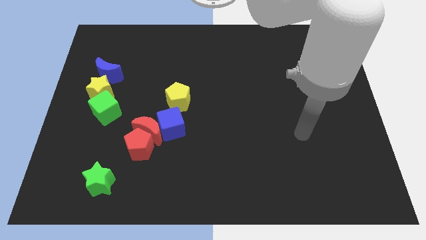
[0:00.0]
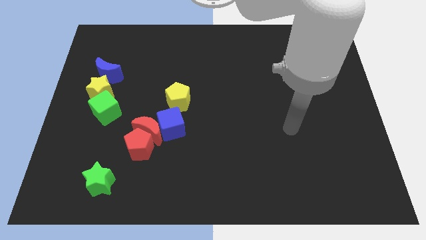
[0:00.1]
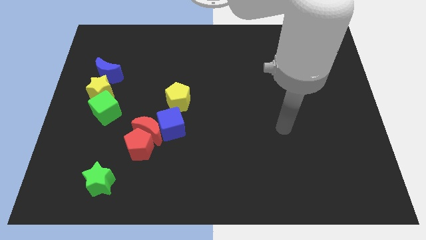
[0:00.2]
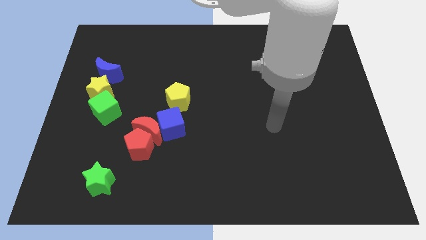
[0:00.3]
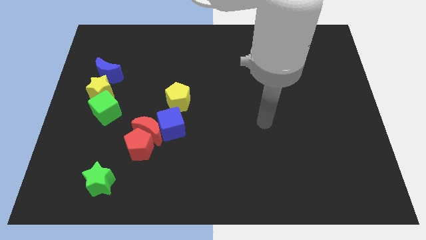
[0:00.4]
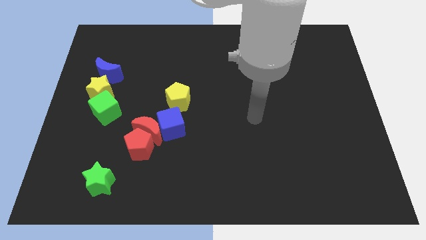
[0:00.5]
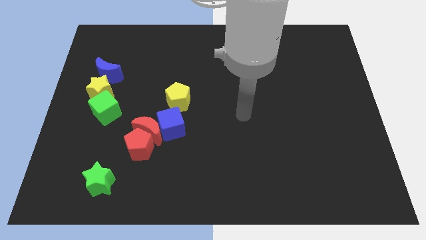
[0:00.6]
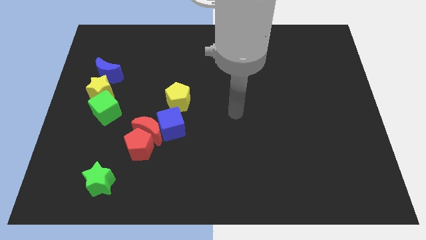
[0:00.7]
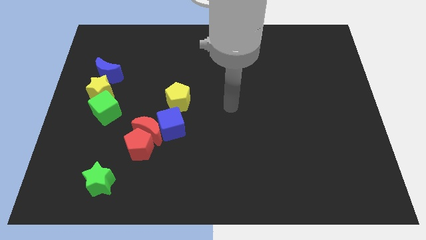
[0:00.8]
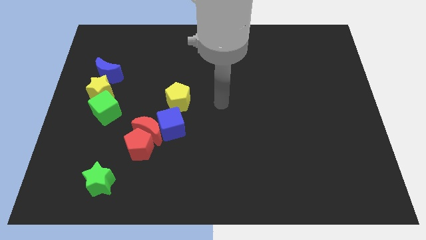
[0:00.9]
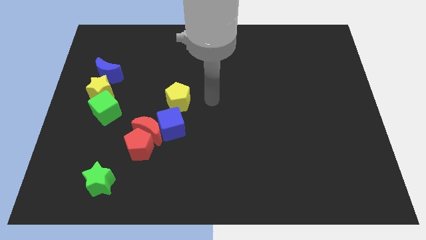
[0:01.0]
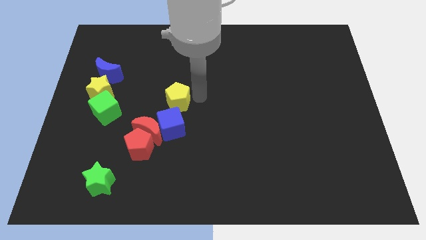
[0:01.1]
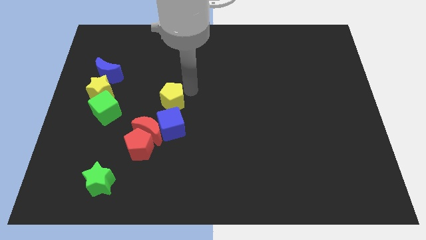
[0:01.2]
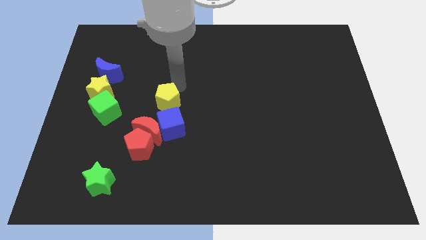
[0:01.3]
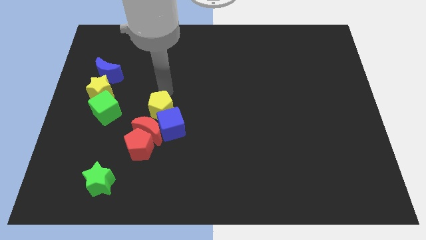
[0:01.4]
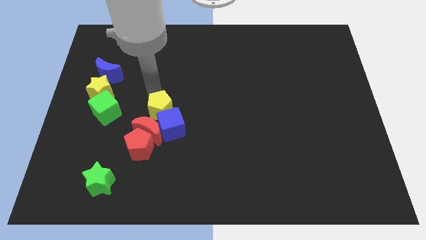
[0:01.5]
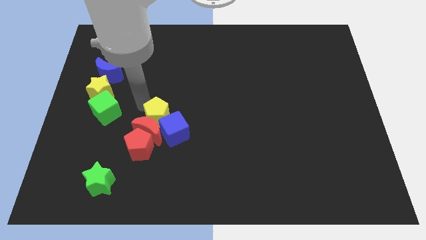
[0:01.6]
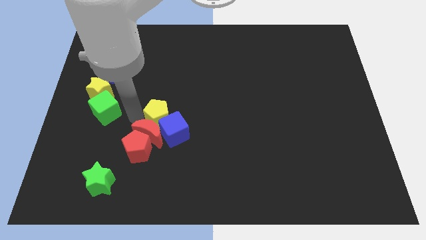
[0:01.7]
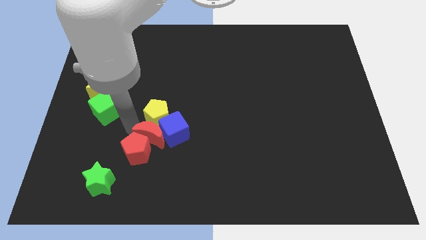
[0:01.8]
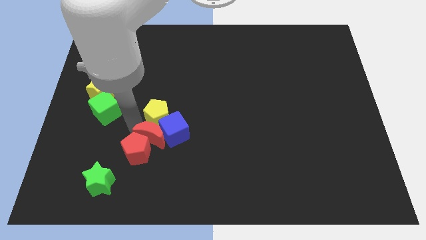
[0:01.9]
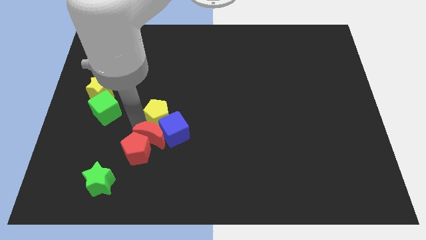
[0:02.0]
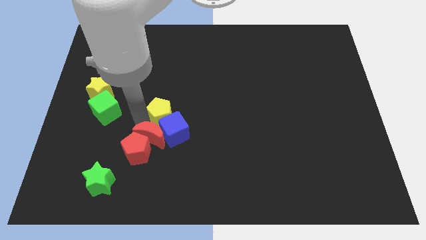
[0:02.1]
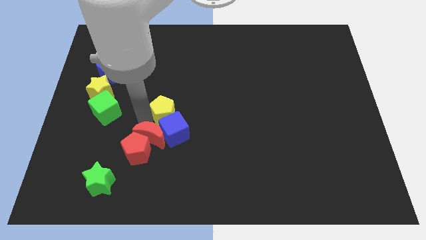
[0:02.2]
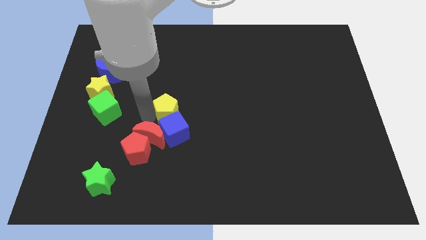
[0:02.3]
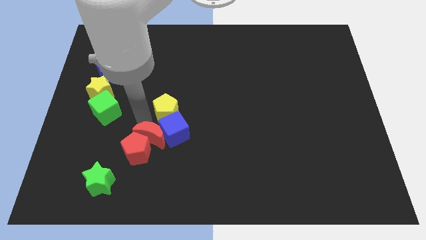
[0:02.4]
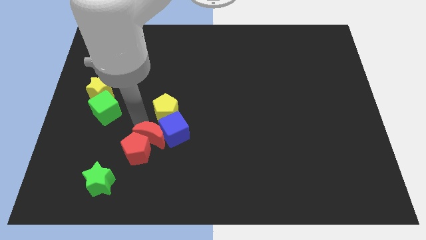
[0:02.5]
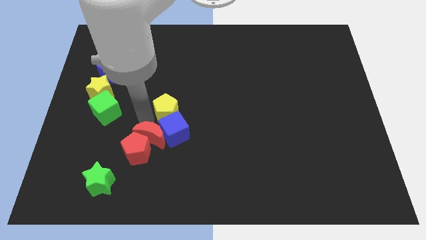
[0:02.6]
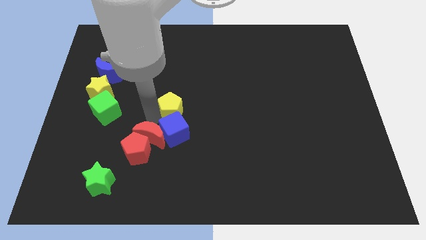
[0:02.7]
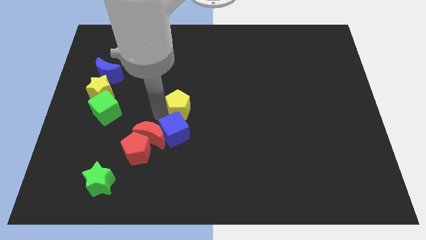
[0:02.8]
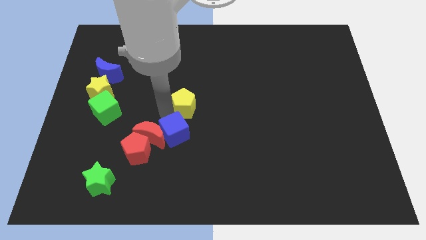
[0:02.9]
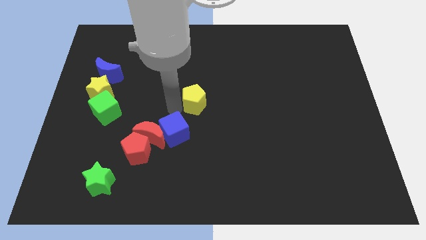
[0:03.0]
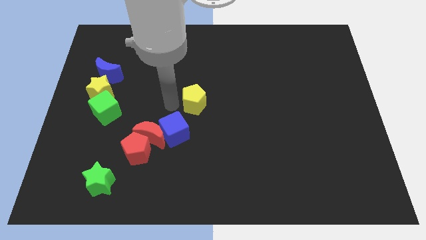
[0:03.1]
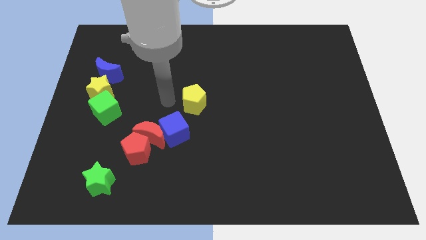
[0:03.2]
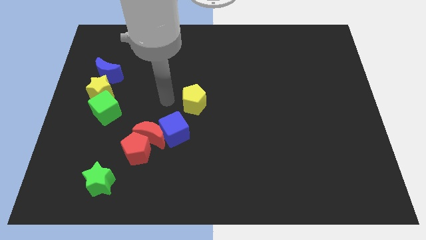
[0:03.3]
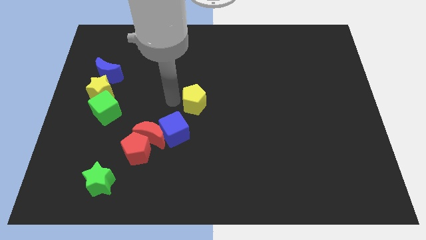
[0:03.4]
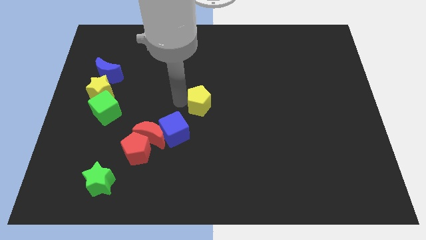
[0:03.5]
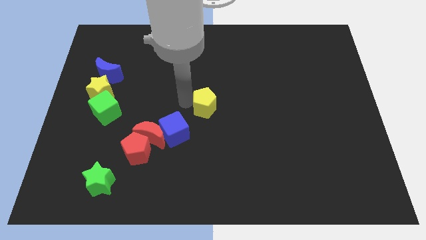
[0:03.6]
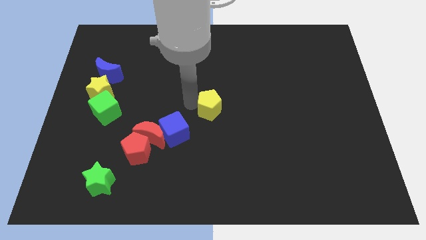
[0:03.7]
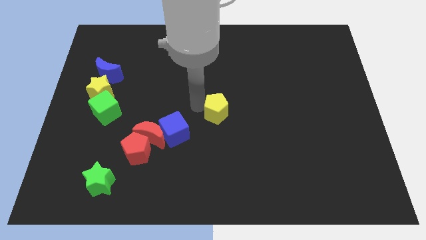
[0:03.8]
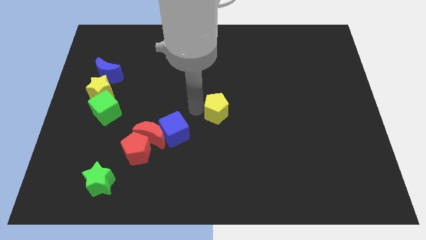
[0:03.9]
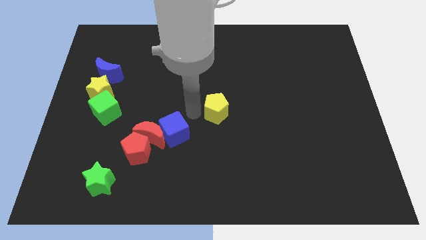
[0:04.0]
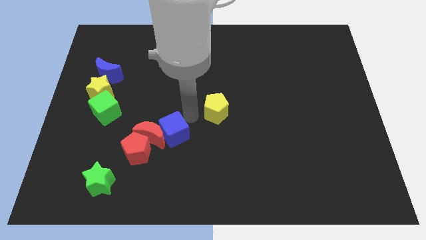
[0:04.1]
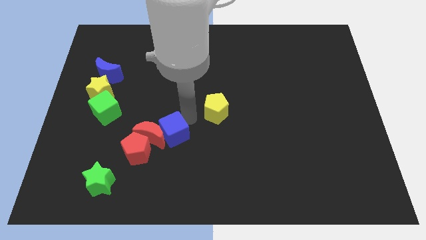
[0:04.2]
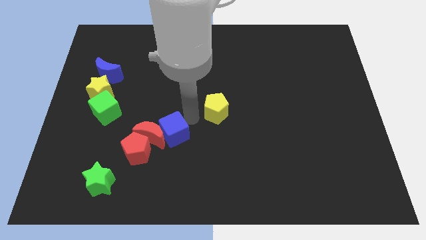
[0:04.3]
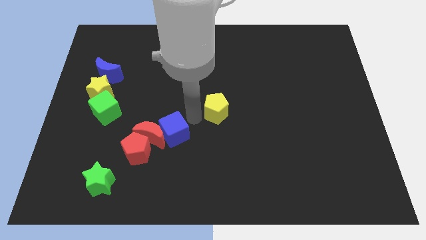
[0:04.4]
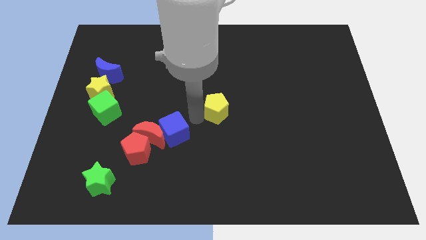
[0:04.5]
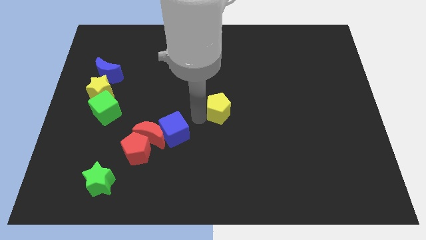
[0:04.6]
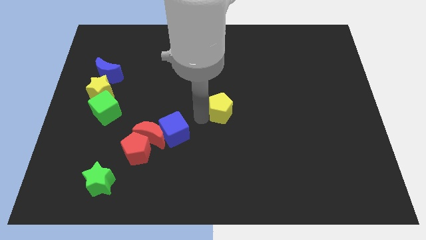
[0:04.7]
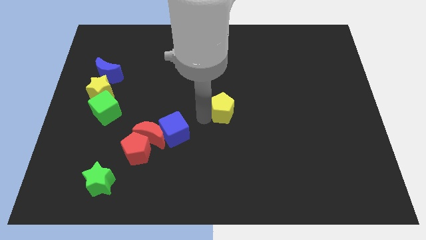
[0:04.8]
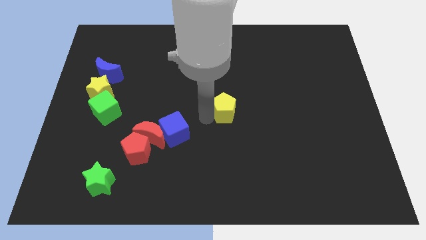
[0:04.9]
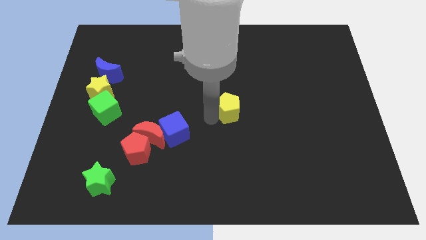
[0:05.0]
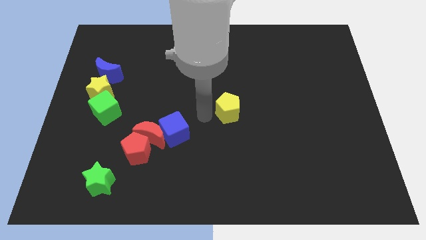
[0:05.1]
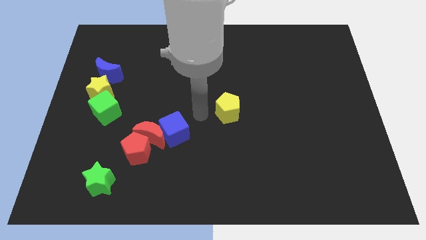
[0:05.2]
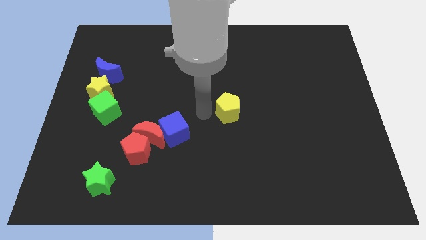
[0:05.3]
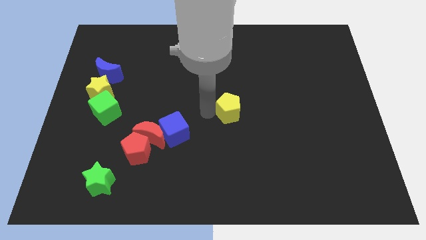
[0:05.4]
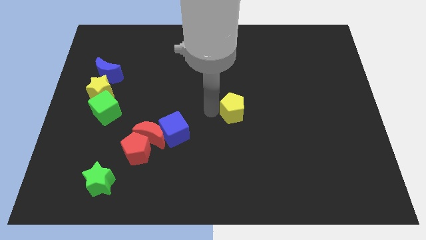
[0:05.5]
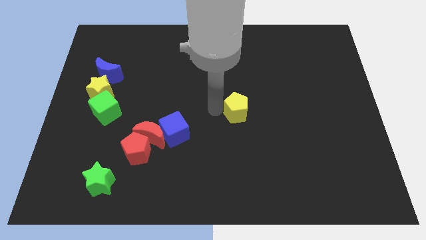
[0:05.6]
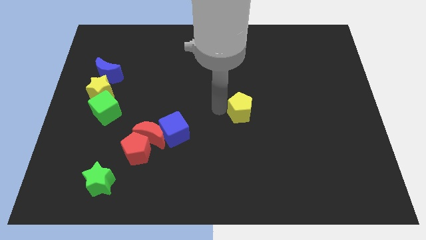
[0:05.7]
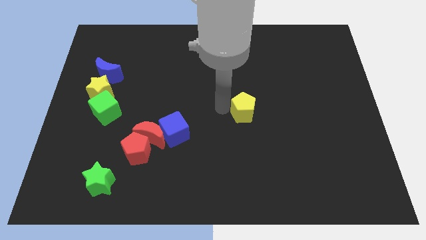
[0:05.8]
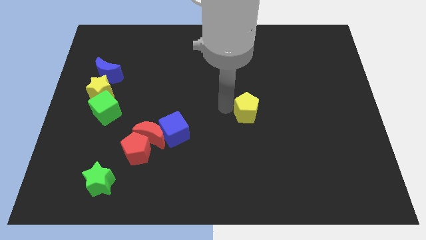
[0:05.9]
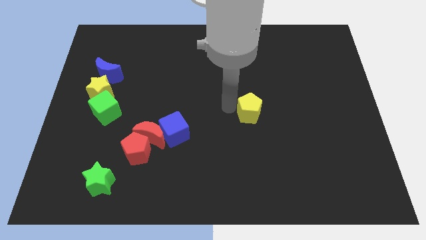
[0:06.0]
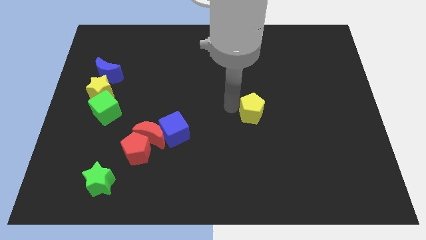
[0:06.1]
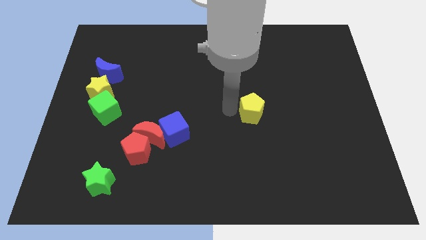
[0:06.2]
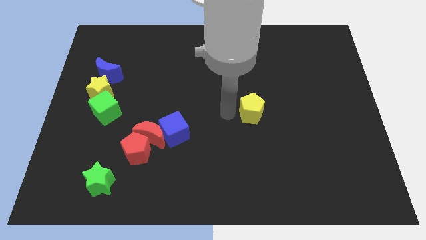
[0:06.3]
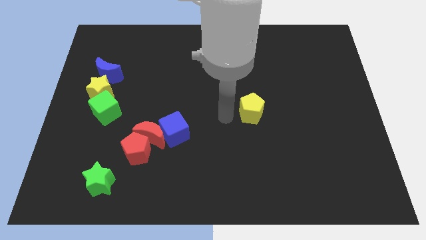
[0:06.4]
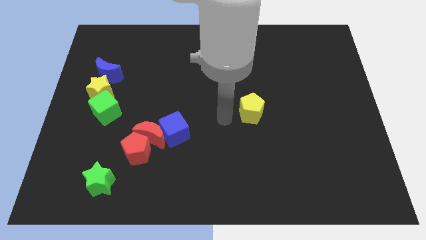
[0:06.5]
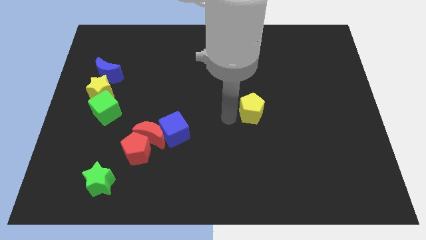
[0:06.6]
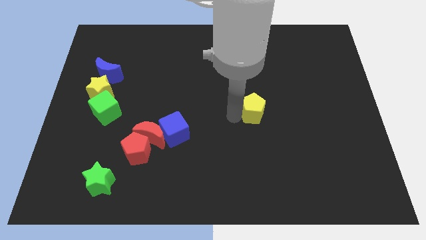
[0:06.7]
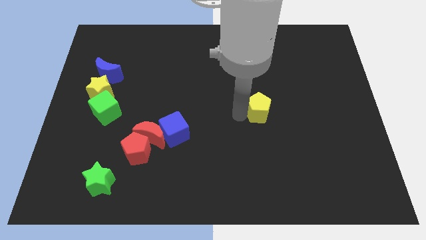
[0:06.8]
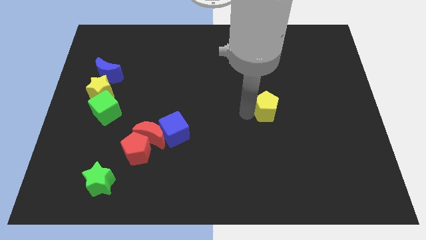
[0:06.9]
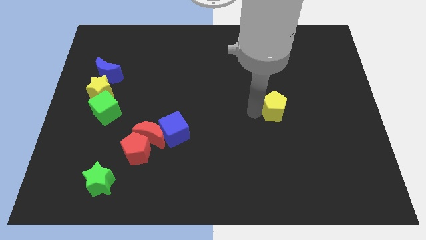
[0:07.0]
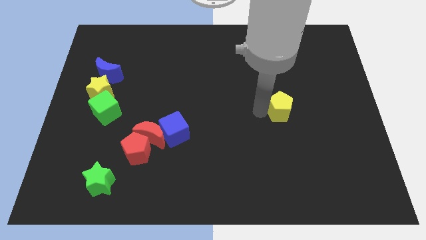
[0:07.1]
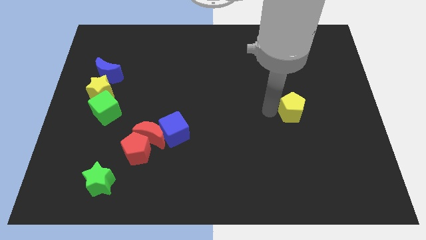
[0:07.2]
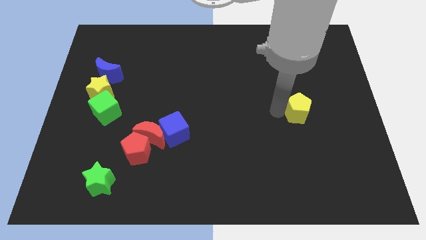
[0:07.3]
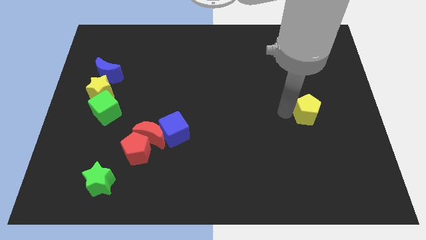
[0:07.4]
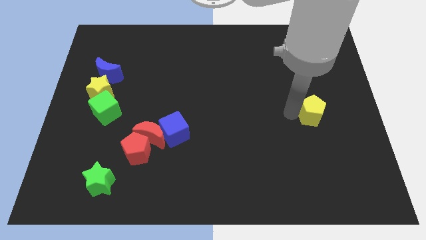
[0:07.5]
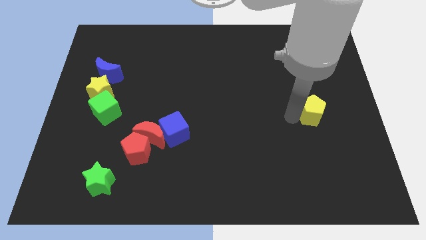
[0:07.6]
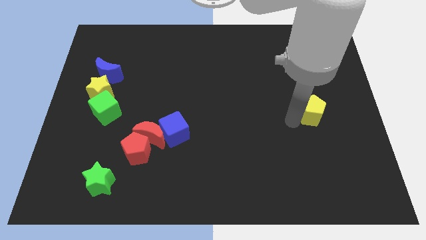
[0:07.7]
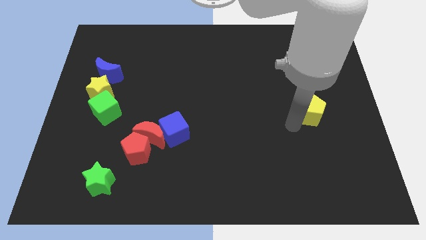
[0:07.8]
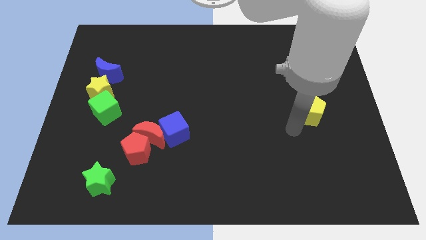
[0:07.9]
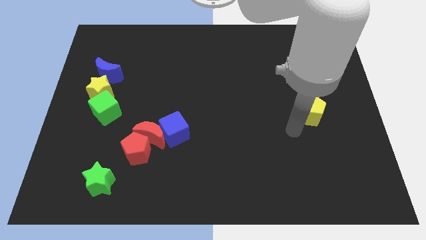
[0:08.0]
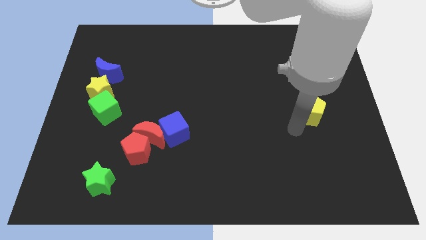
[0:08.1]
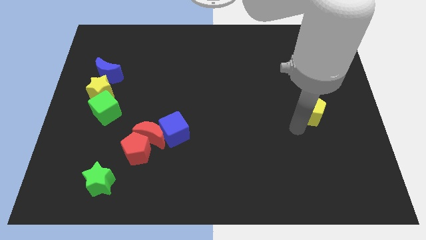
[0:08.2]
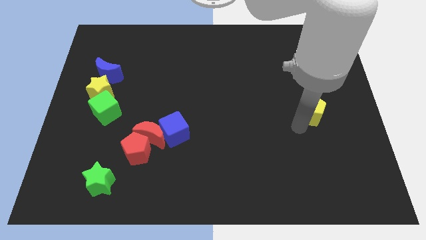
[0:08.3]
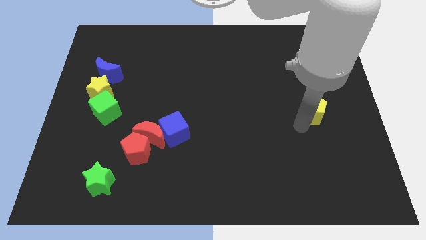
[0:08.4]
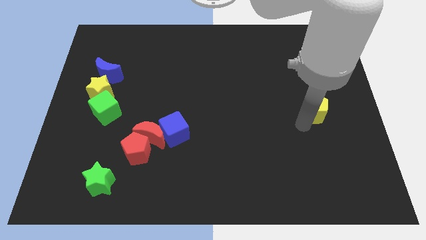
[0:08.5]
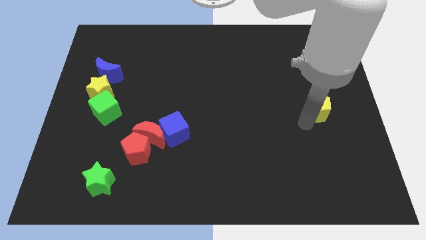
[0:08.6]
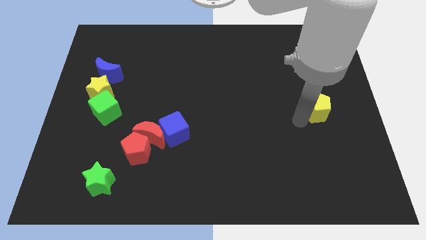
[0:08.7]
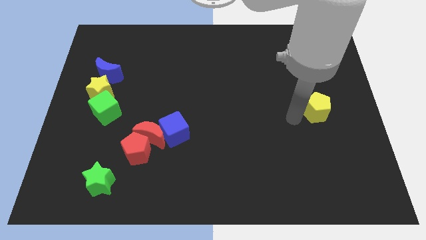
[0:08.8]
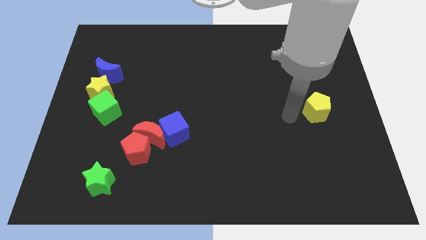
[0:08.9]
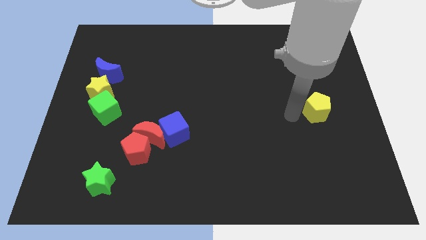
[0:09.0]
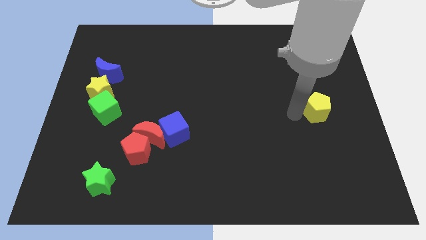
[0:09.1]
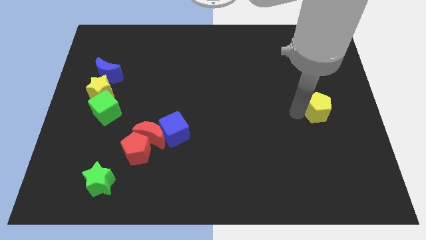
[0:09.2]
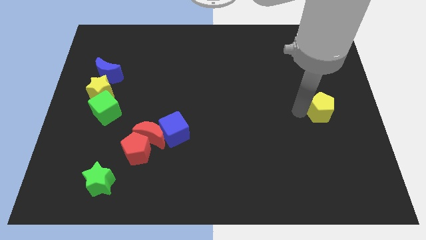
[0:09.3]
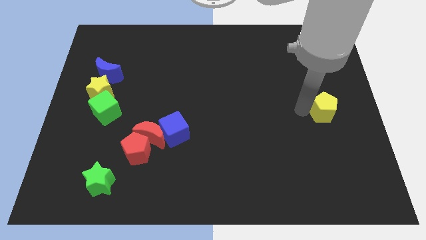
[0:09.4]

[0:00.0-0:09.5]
move the yellow pentagon to the center right
